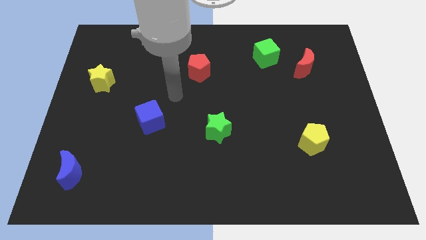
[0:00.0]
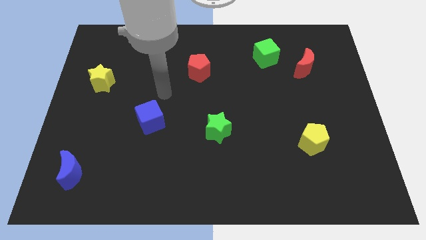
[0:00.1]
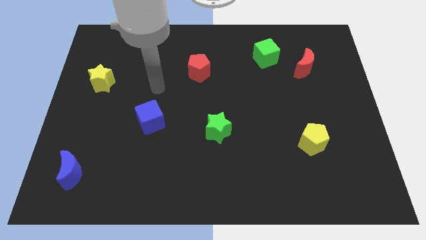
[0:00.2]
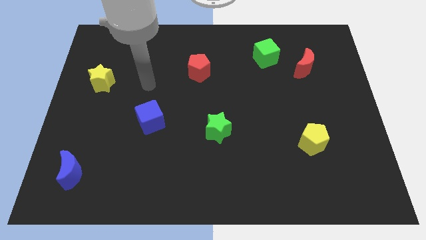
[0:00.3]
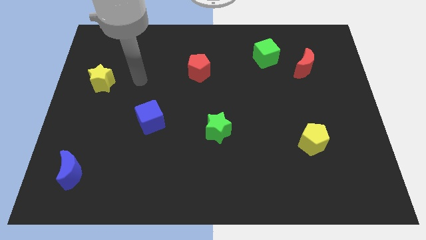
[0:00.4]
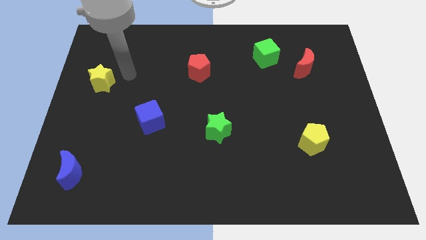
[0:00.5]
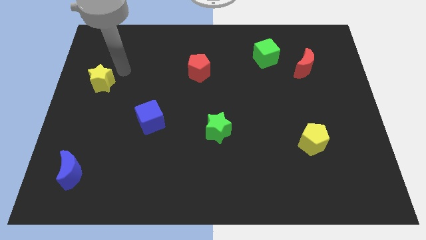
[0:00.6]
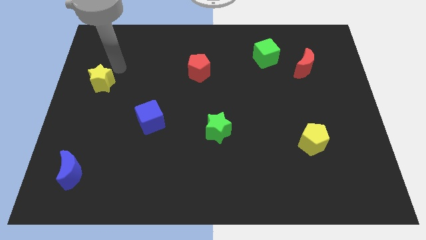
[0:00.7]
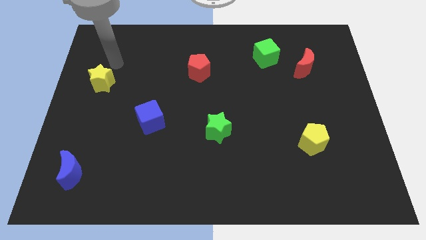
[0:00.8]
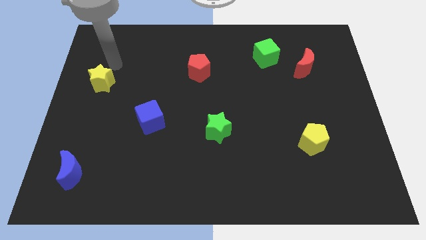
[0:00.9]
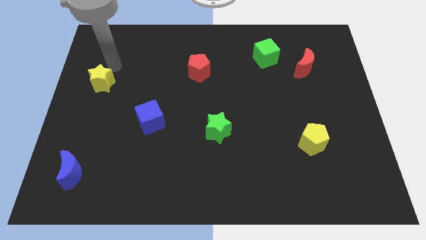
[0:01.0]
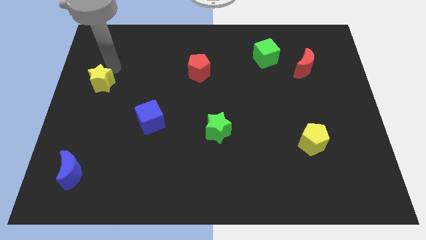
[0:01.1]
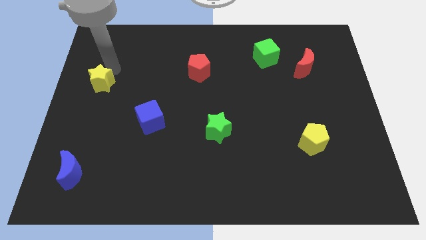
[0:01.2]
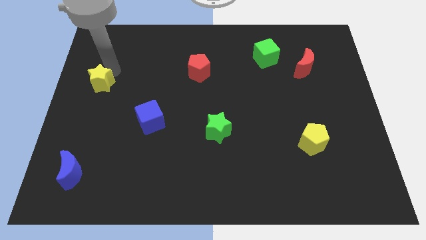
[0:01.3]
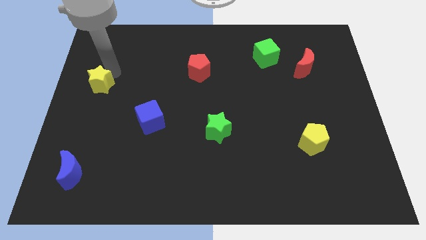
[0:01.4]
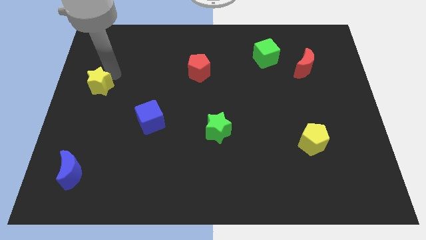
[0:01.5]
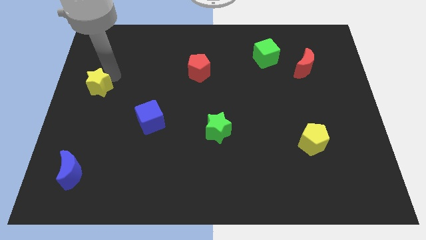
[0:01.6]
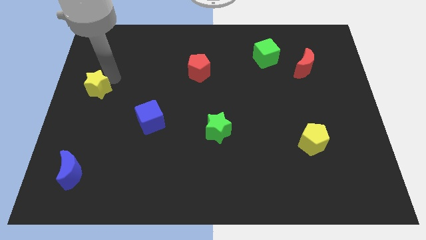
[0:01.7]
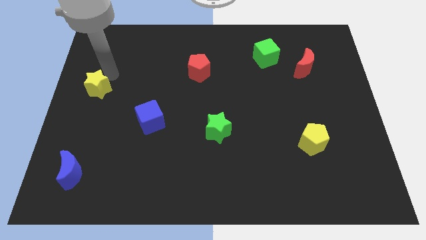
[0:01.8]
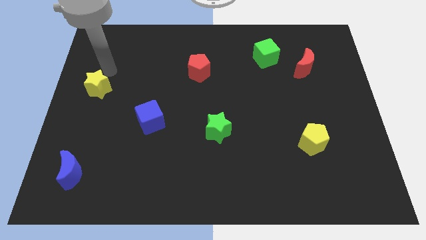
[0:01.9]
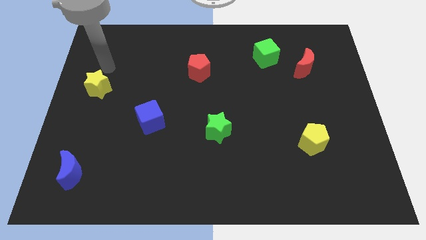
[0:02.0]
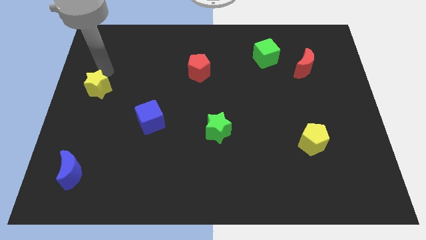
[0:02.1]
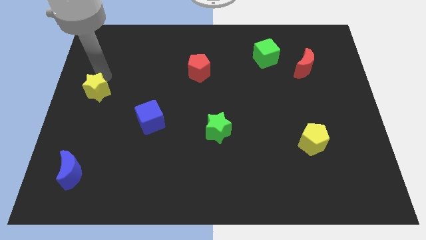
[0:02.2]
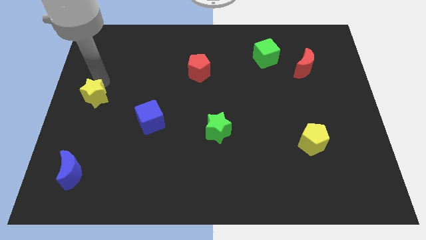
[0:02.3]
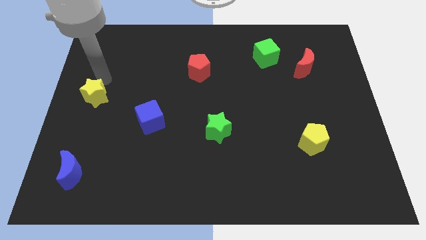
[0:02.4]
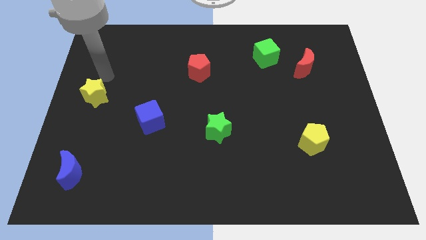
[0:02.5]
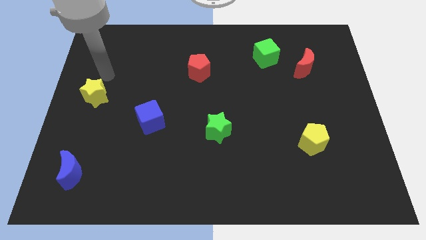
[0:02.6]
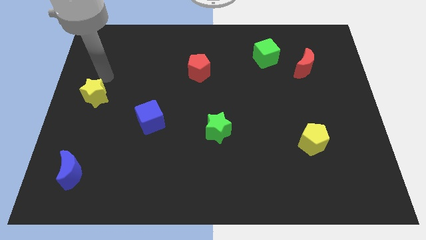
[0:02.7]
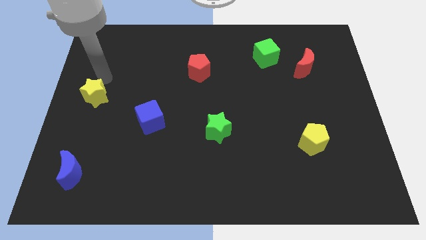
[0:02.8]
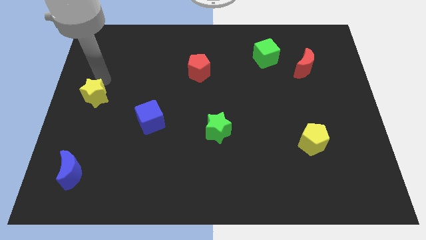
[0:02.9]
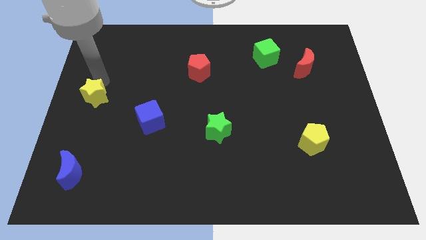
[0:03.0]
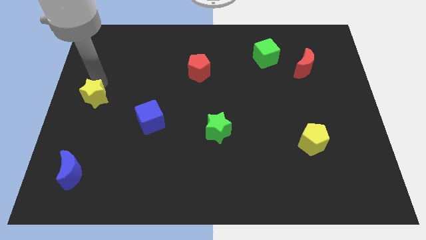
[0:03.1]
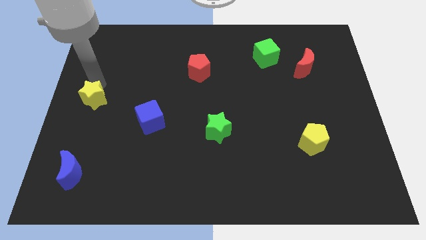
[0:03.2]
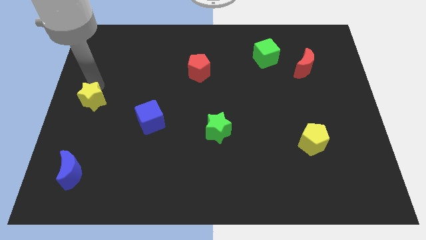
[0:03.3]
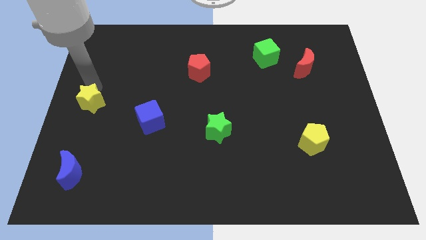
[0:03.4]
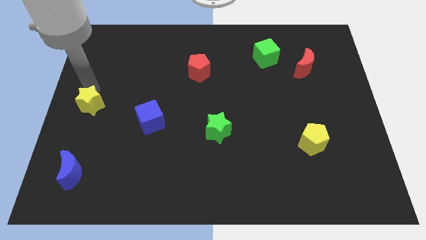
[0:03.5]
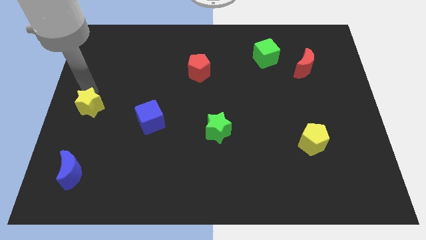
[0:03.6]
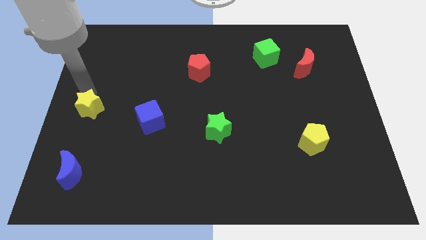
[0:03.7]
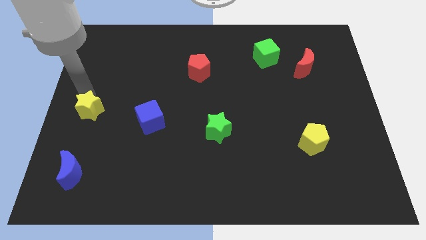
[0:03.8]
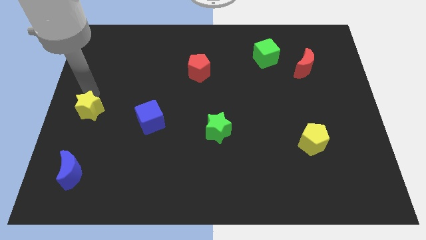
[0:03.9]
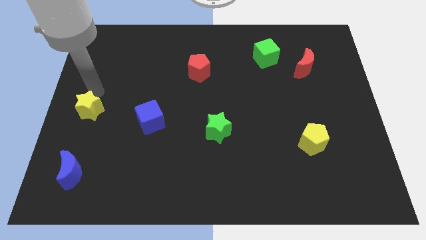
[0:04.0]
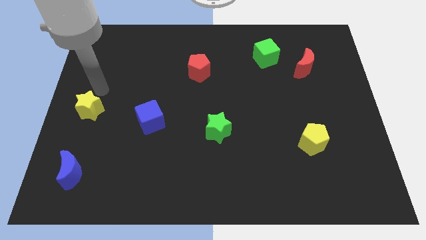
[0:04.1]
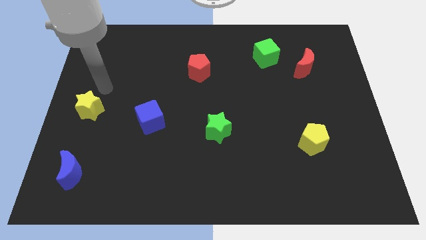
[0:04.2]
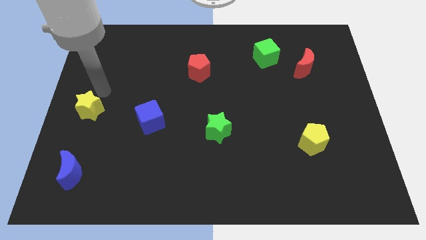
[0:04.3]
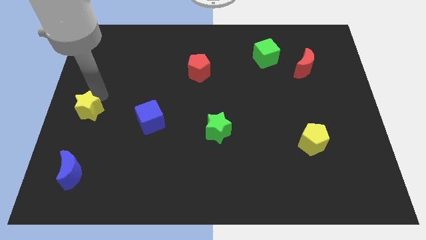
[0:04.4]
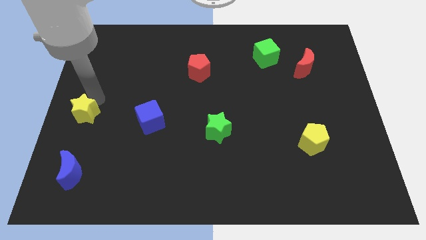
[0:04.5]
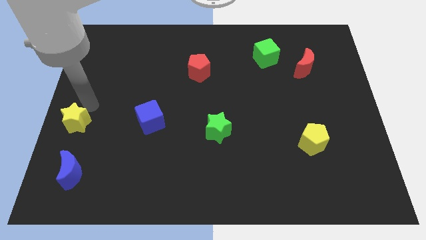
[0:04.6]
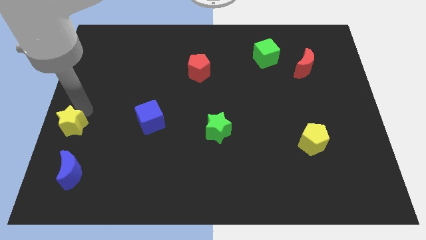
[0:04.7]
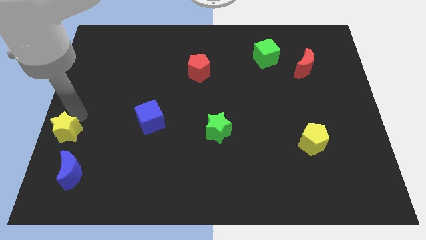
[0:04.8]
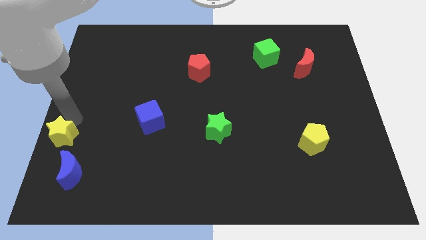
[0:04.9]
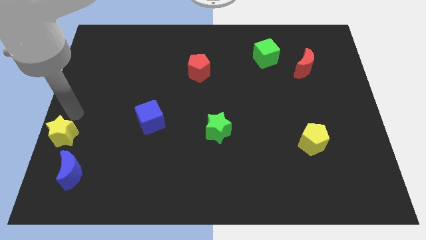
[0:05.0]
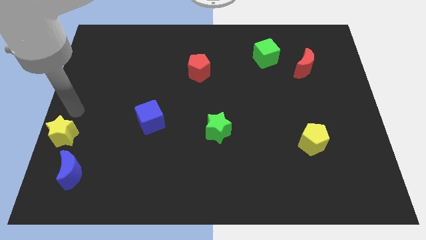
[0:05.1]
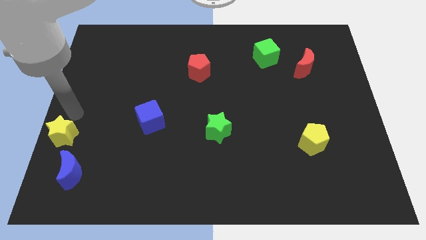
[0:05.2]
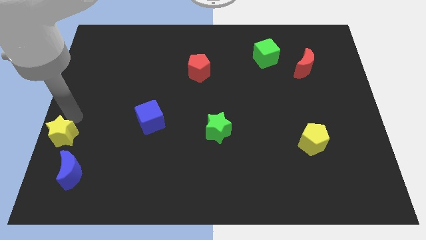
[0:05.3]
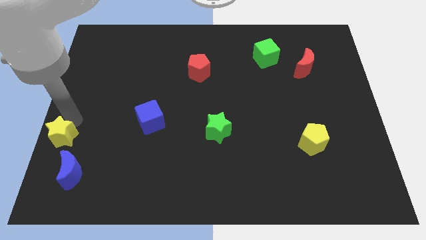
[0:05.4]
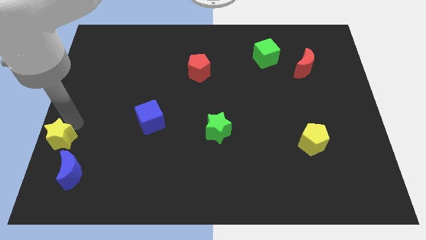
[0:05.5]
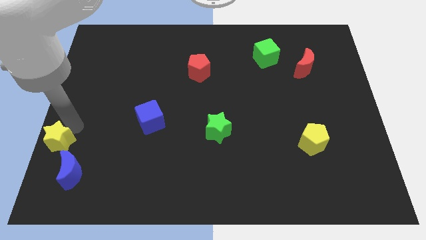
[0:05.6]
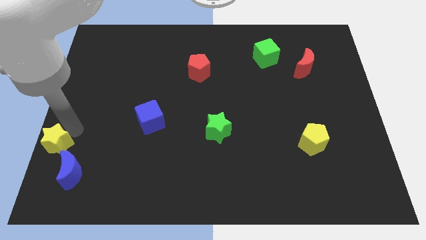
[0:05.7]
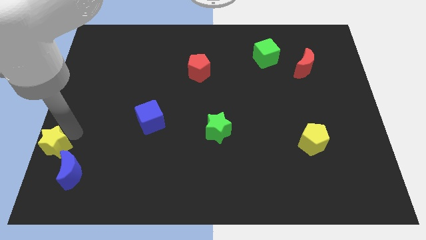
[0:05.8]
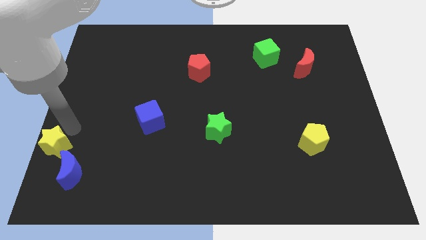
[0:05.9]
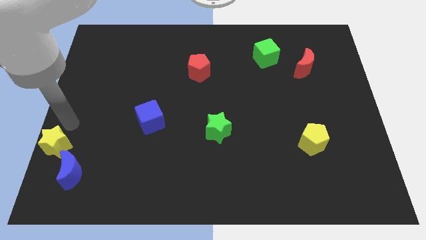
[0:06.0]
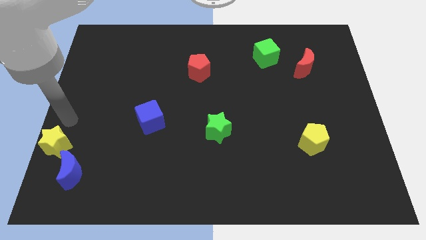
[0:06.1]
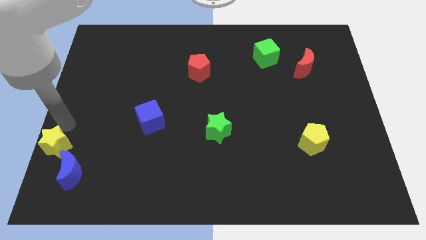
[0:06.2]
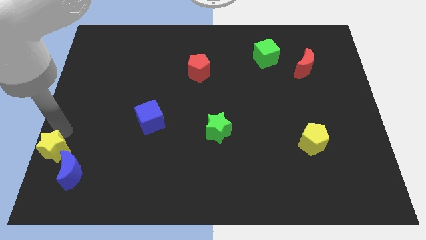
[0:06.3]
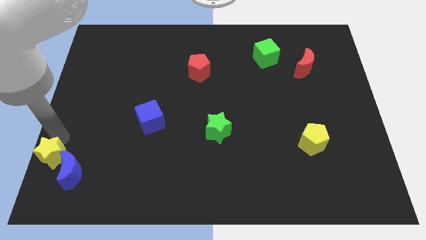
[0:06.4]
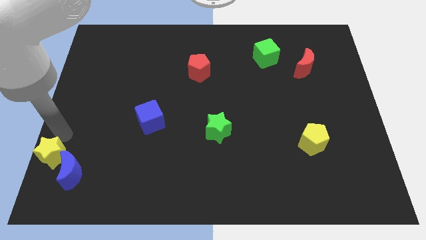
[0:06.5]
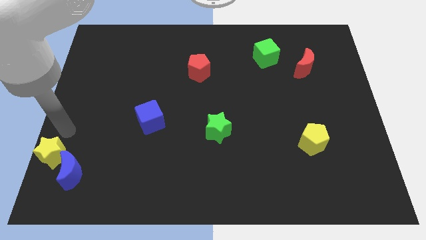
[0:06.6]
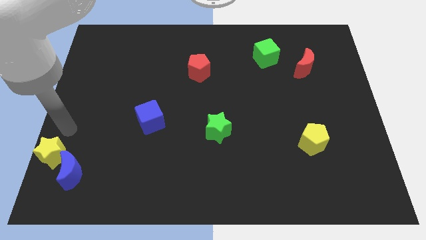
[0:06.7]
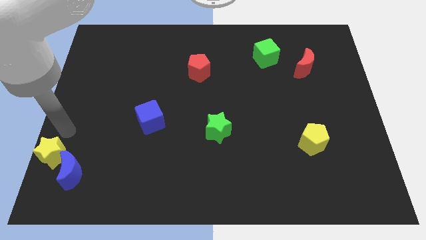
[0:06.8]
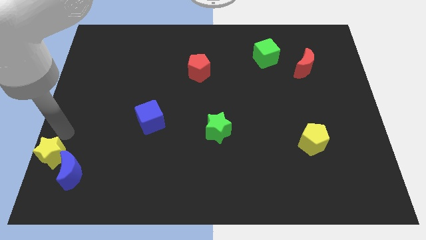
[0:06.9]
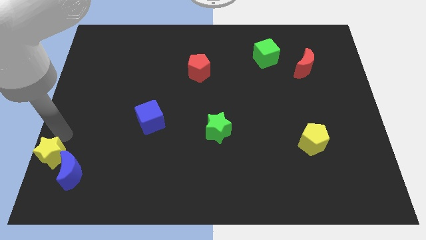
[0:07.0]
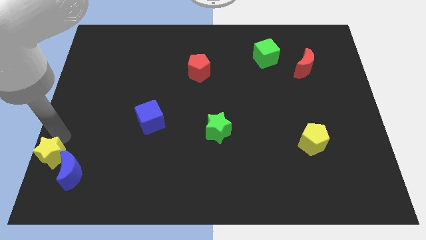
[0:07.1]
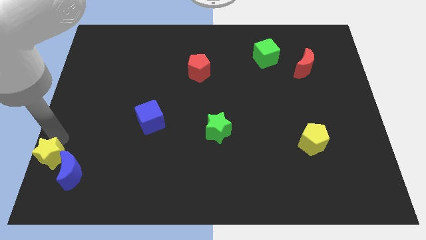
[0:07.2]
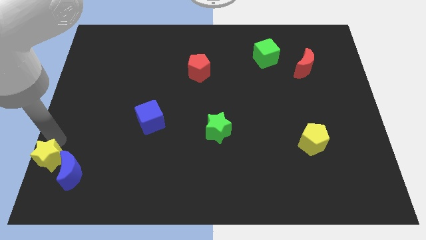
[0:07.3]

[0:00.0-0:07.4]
move the yellow star to the lower left corner
